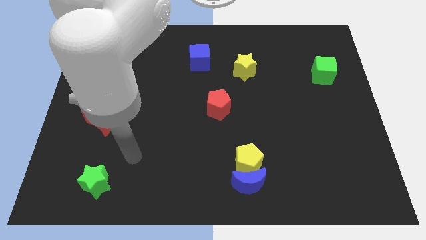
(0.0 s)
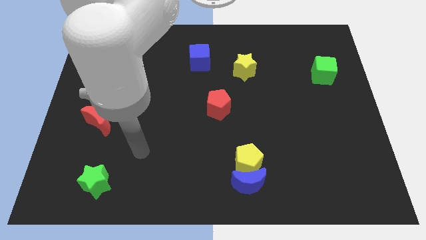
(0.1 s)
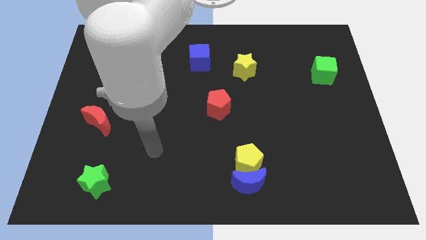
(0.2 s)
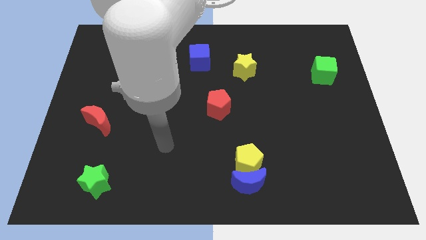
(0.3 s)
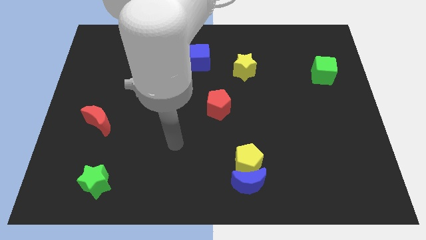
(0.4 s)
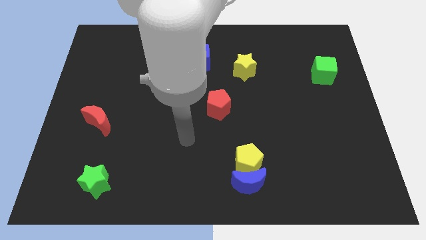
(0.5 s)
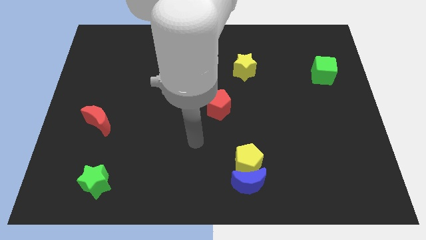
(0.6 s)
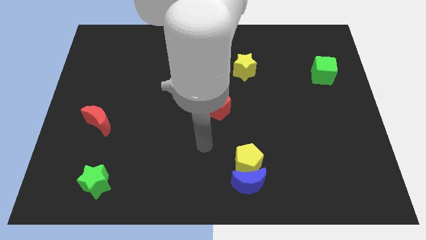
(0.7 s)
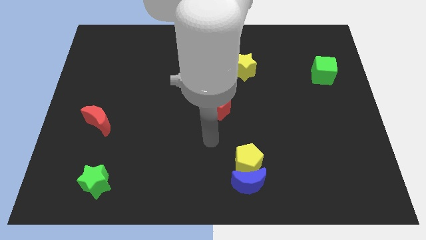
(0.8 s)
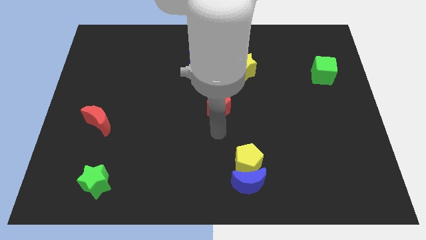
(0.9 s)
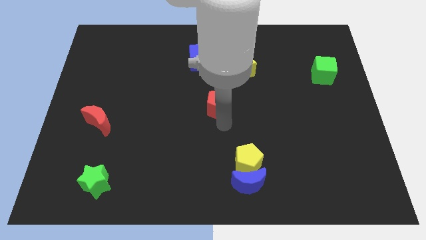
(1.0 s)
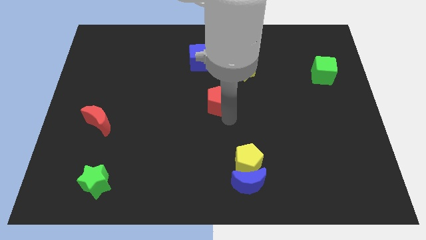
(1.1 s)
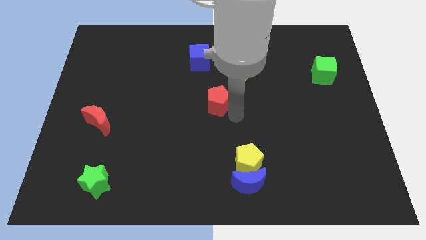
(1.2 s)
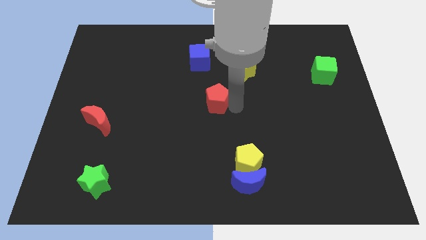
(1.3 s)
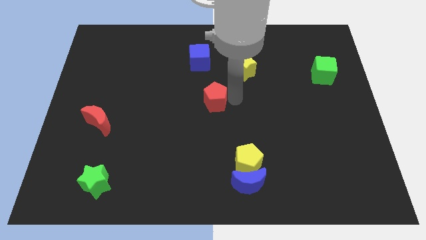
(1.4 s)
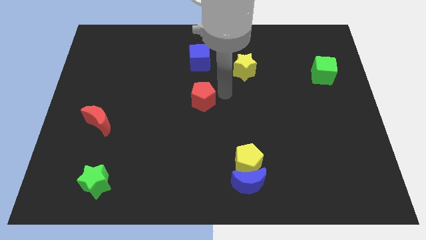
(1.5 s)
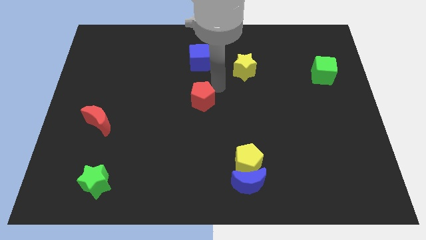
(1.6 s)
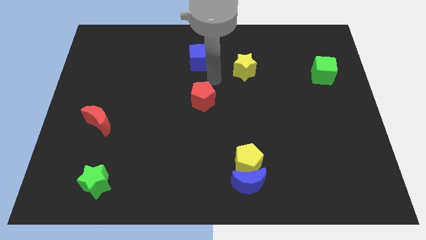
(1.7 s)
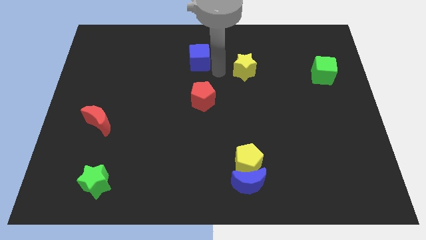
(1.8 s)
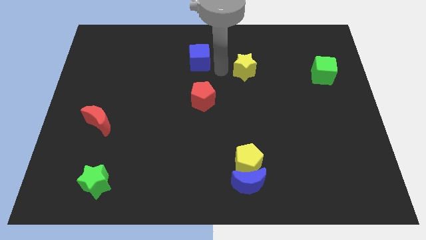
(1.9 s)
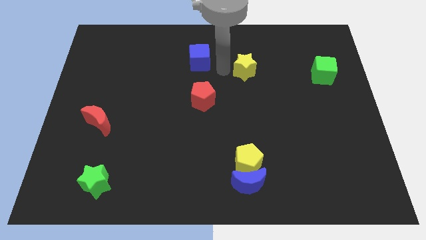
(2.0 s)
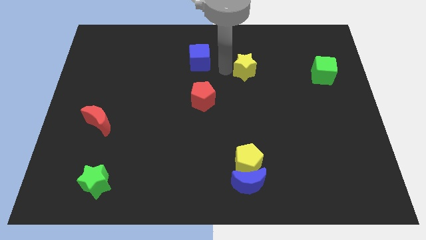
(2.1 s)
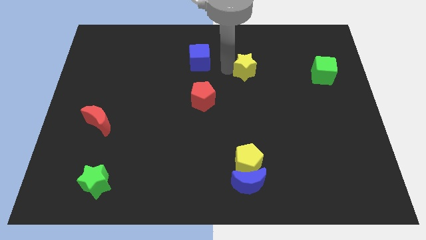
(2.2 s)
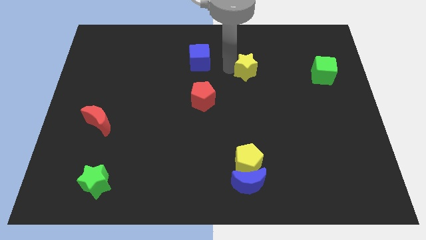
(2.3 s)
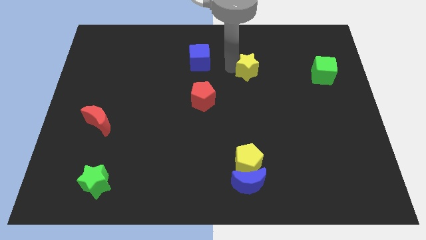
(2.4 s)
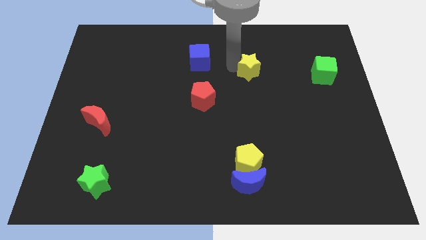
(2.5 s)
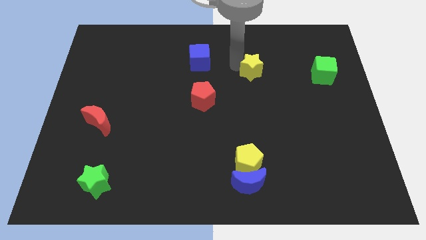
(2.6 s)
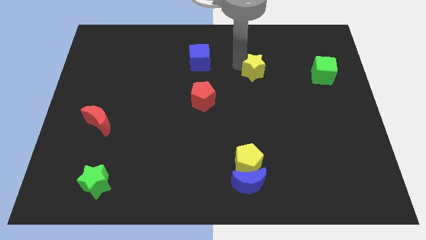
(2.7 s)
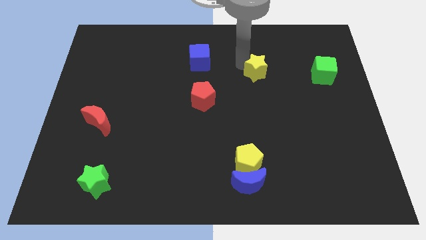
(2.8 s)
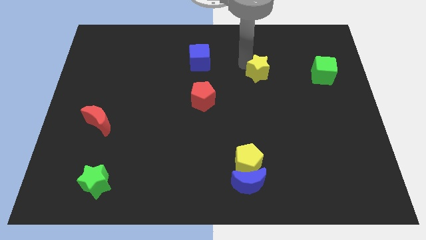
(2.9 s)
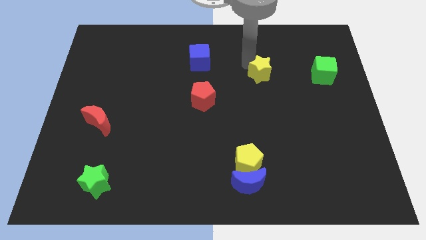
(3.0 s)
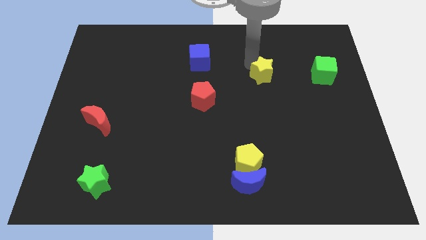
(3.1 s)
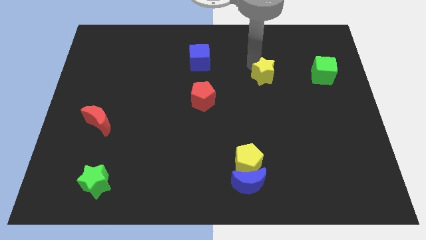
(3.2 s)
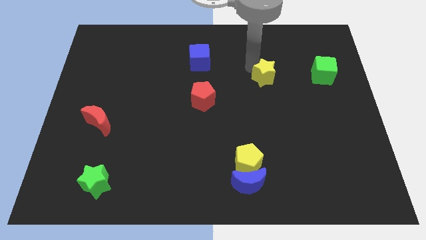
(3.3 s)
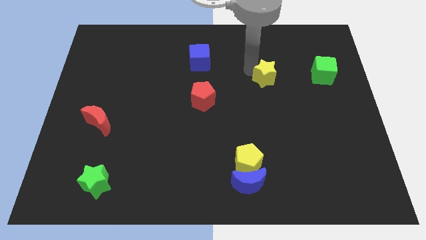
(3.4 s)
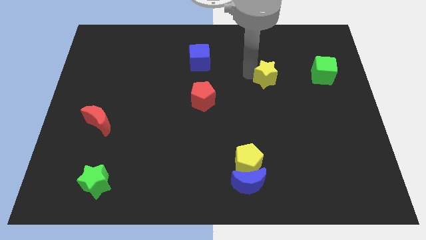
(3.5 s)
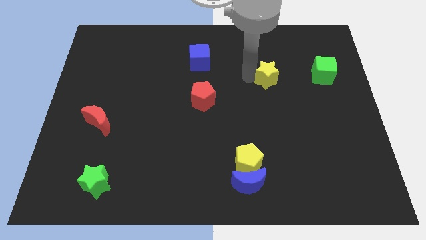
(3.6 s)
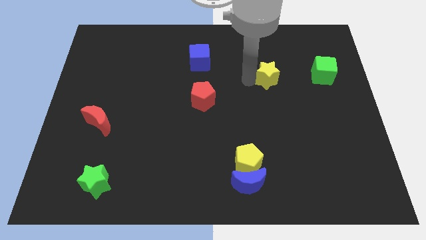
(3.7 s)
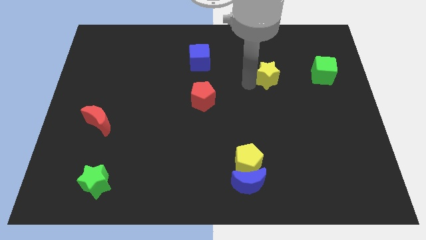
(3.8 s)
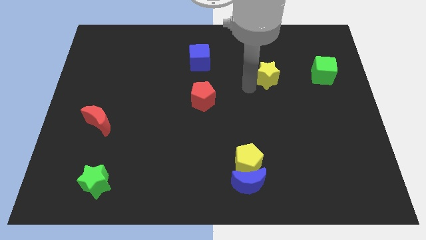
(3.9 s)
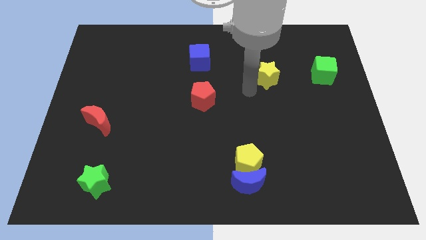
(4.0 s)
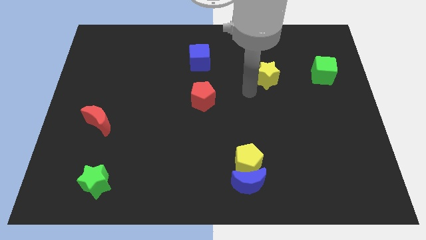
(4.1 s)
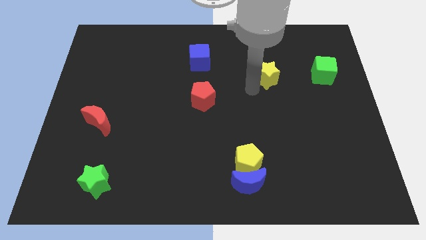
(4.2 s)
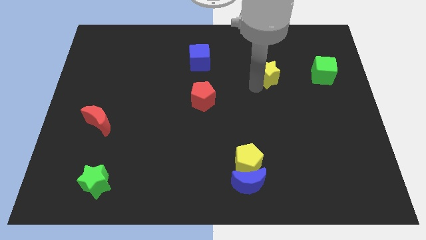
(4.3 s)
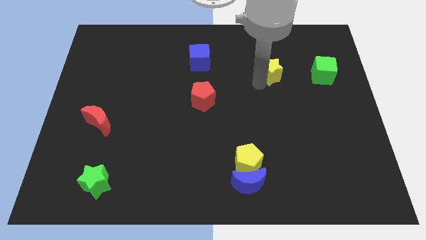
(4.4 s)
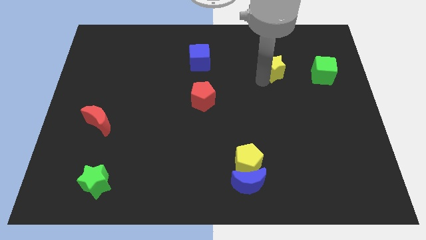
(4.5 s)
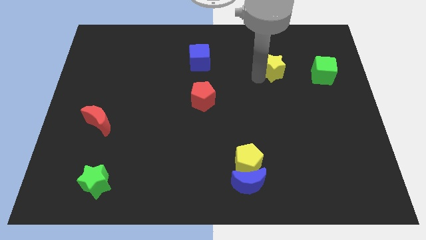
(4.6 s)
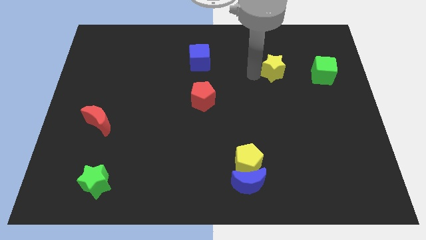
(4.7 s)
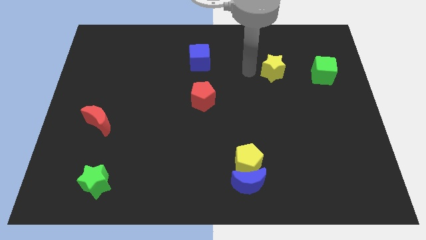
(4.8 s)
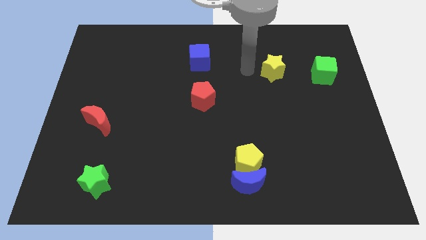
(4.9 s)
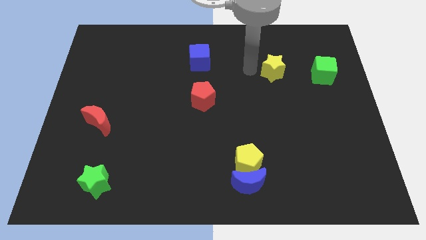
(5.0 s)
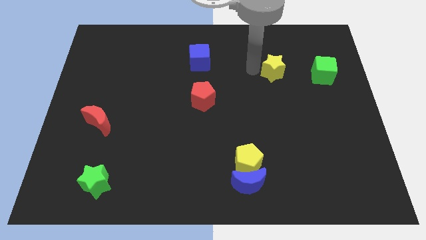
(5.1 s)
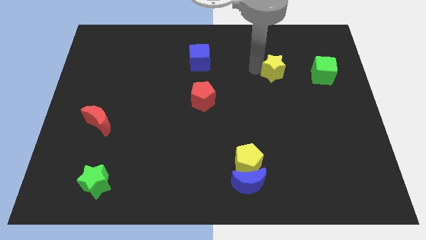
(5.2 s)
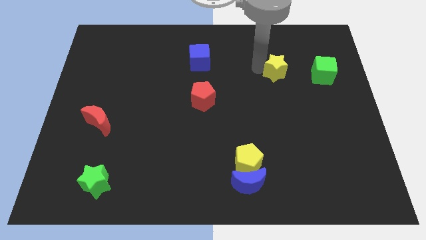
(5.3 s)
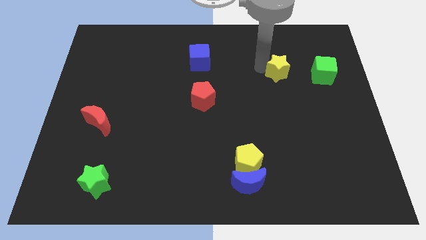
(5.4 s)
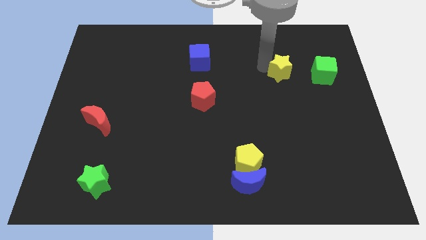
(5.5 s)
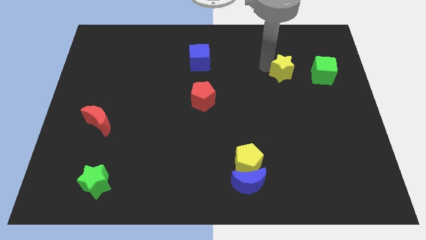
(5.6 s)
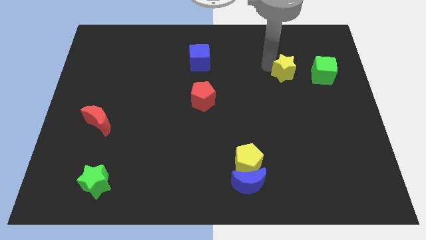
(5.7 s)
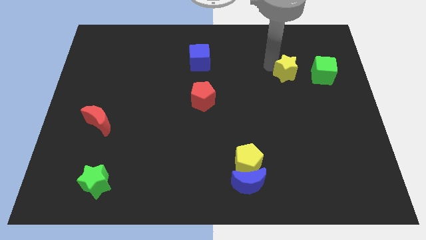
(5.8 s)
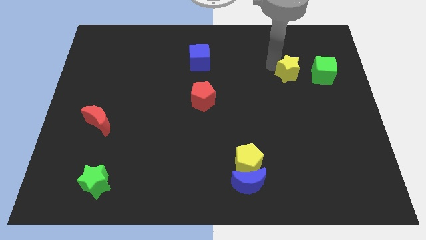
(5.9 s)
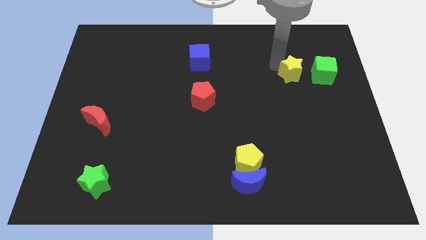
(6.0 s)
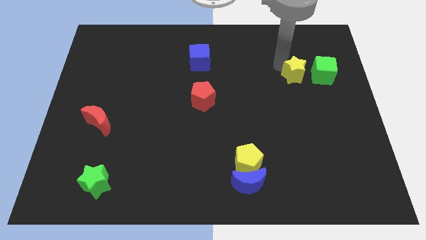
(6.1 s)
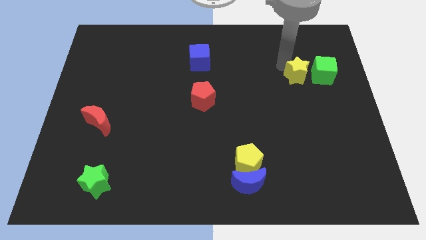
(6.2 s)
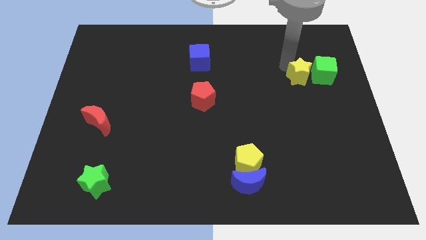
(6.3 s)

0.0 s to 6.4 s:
push the yellow star towards the green cube

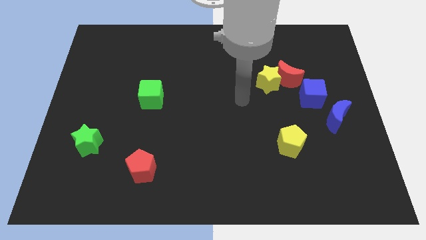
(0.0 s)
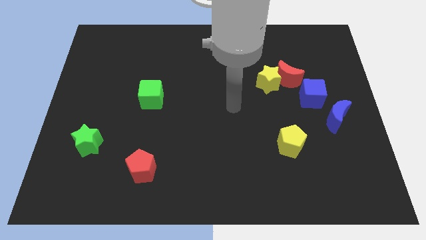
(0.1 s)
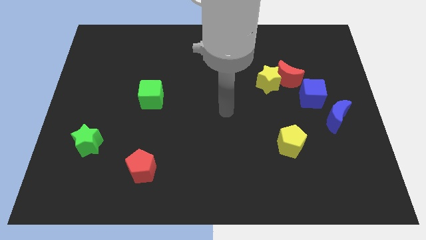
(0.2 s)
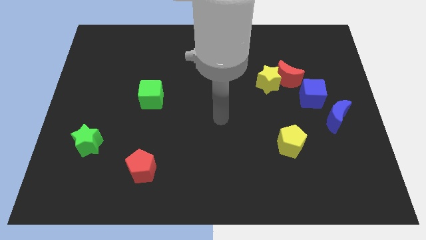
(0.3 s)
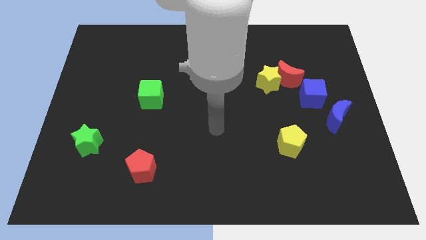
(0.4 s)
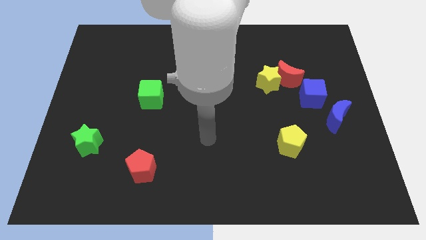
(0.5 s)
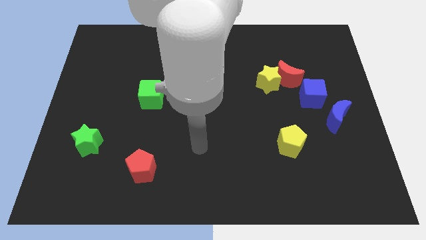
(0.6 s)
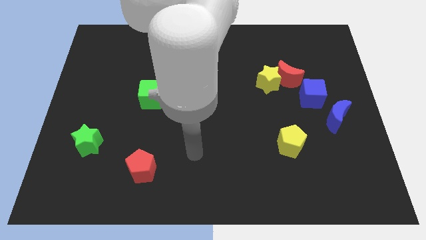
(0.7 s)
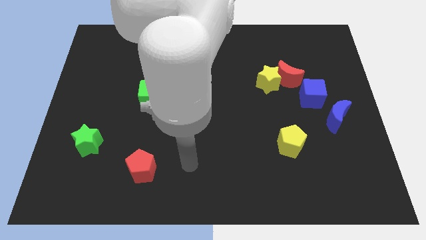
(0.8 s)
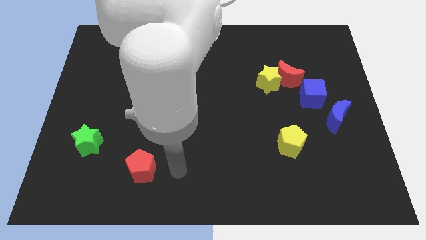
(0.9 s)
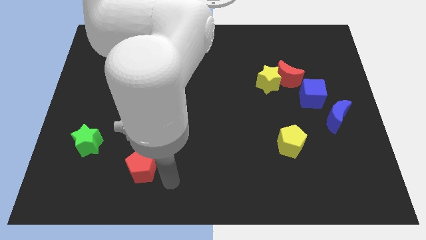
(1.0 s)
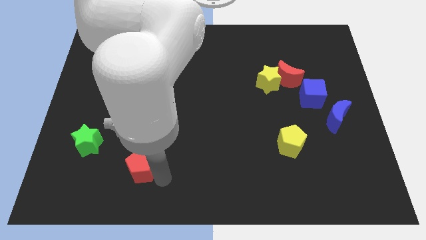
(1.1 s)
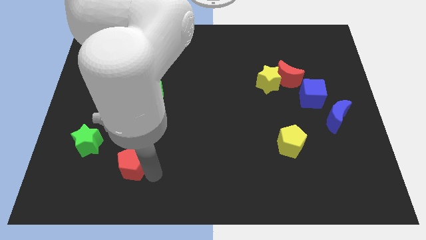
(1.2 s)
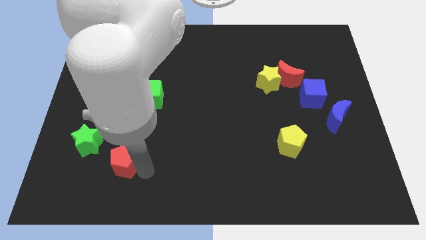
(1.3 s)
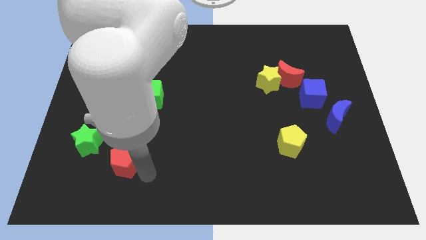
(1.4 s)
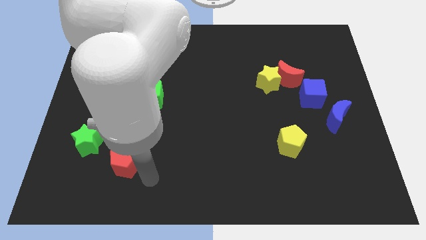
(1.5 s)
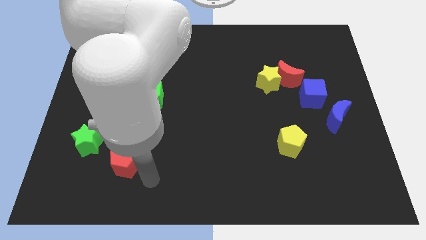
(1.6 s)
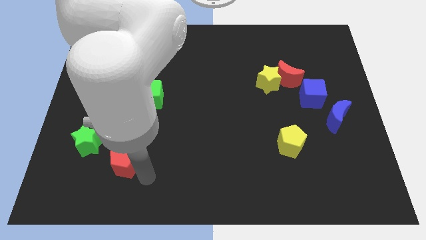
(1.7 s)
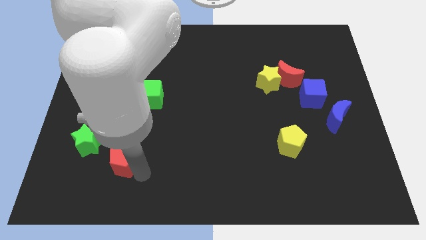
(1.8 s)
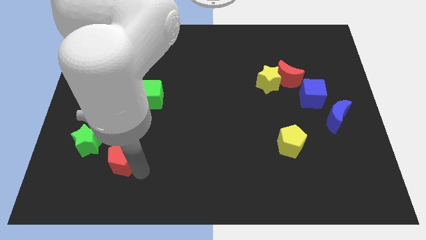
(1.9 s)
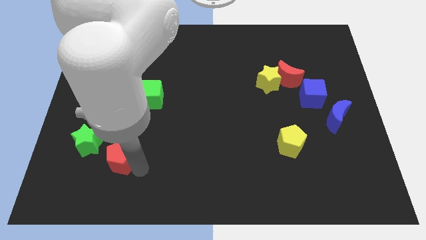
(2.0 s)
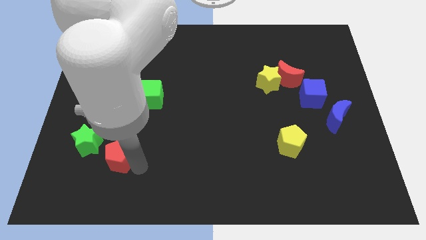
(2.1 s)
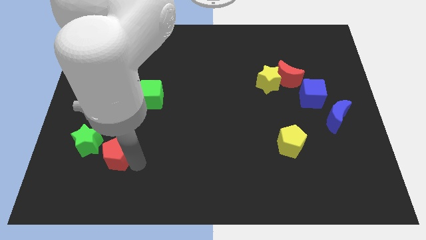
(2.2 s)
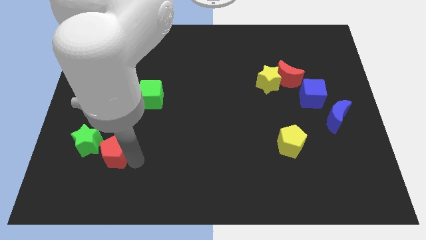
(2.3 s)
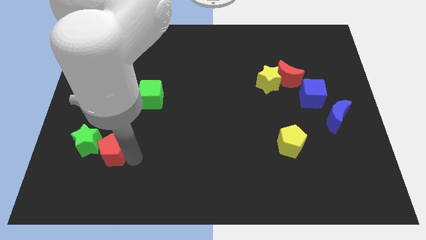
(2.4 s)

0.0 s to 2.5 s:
put the red pentagon next to the green star
